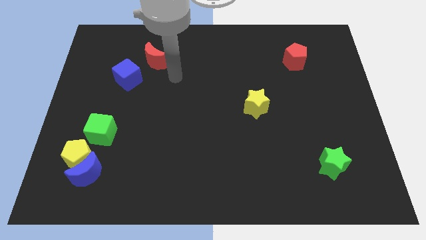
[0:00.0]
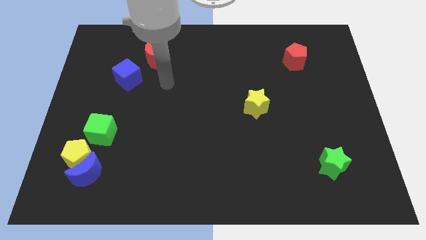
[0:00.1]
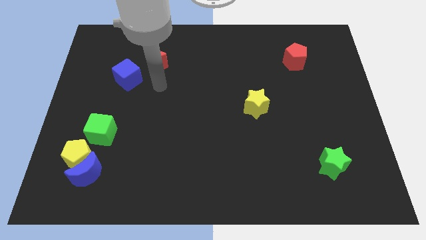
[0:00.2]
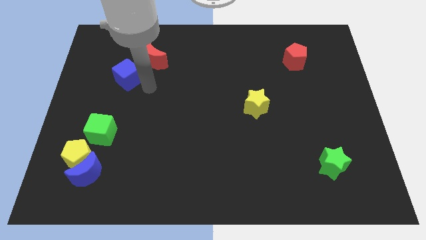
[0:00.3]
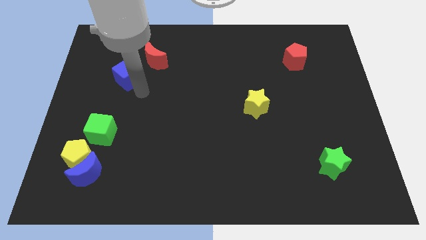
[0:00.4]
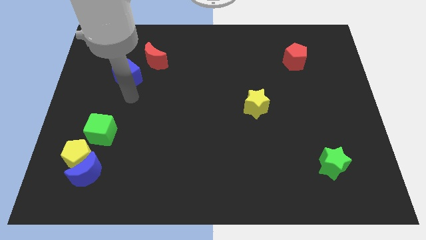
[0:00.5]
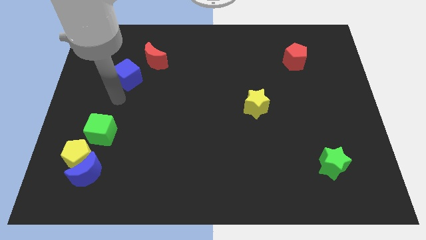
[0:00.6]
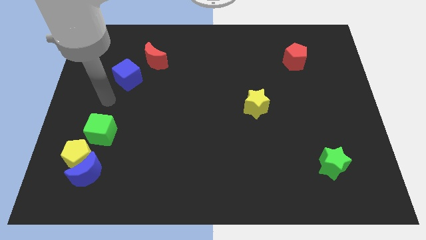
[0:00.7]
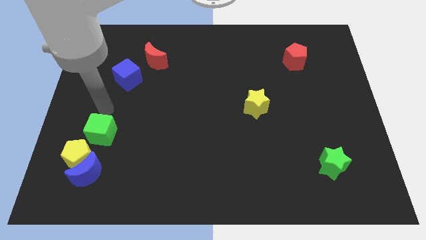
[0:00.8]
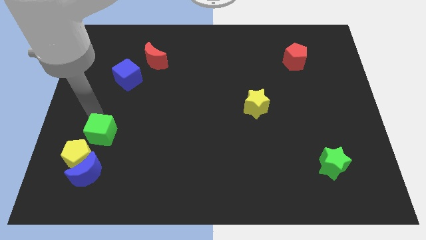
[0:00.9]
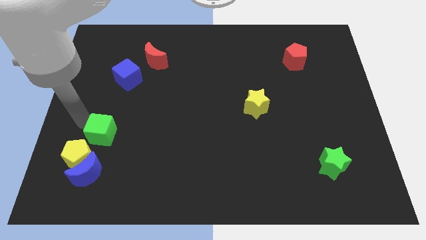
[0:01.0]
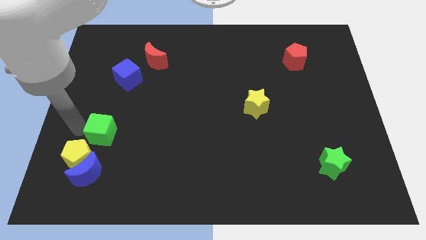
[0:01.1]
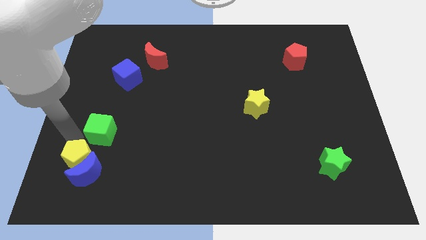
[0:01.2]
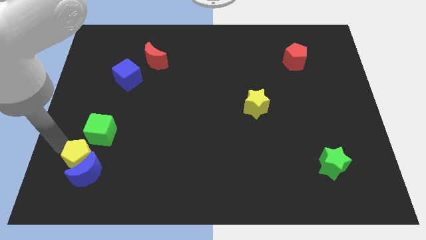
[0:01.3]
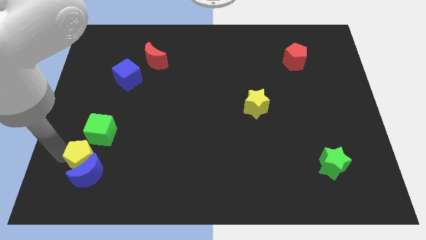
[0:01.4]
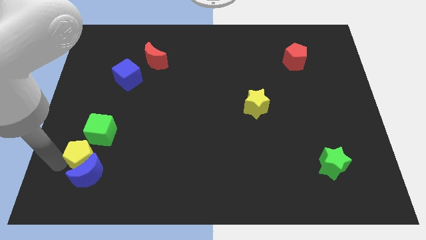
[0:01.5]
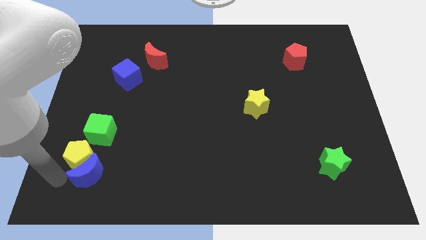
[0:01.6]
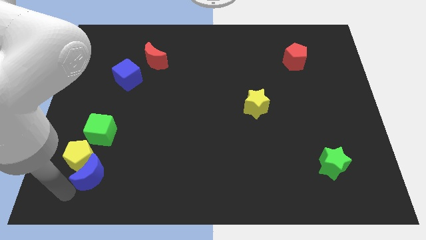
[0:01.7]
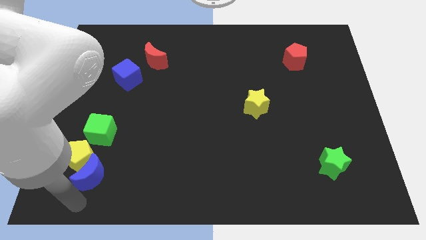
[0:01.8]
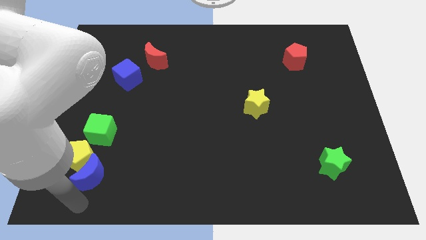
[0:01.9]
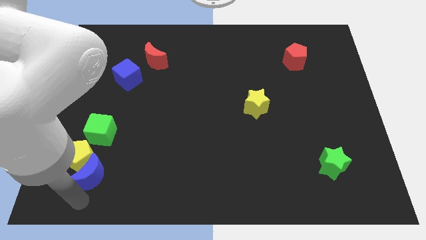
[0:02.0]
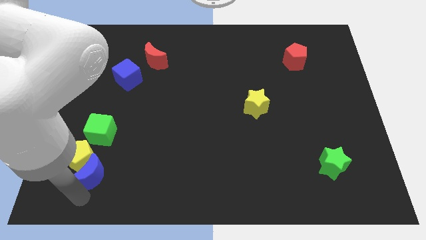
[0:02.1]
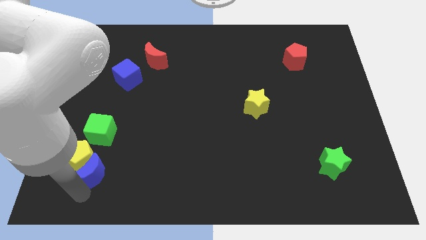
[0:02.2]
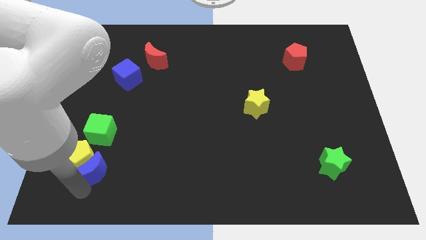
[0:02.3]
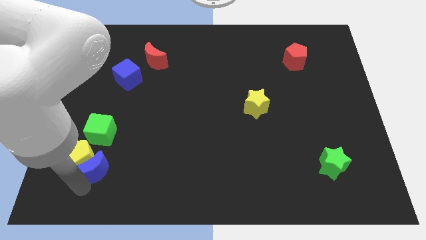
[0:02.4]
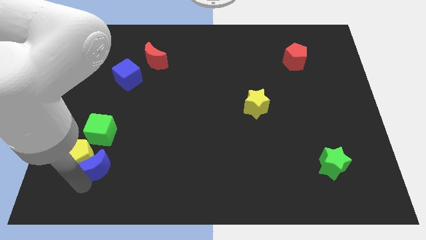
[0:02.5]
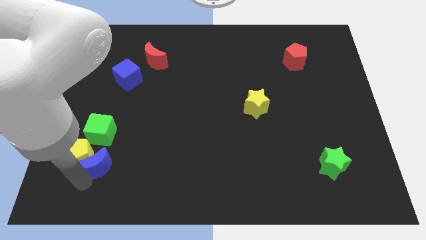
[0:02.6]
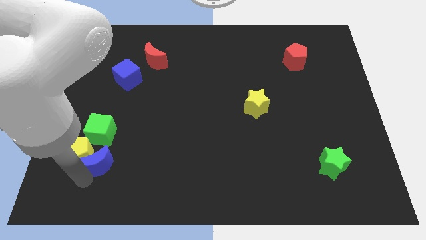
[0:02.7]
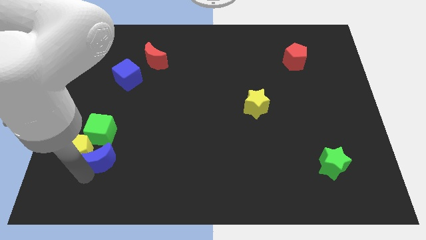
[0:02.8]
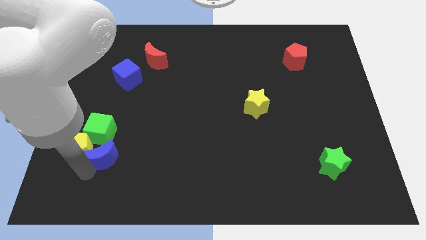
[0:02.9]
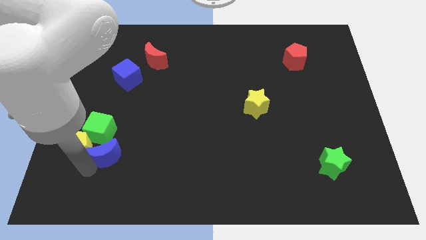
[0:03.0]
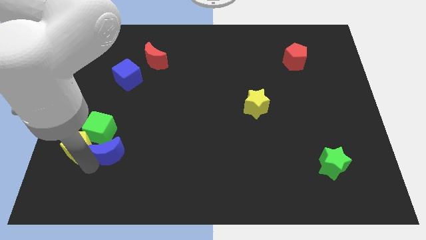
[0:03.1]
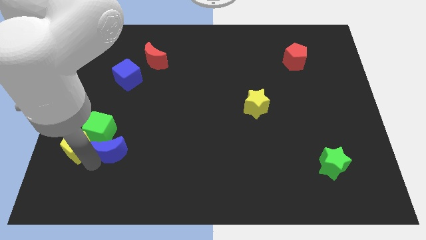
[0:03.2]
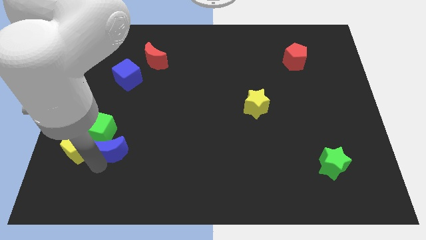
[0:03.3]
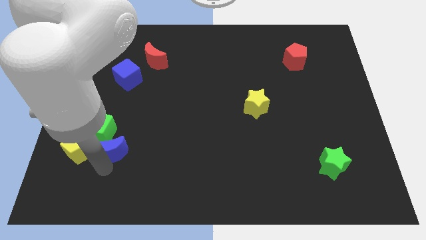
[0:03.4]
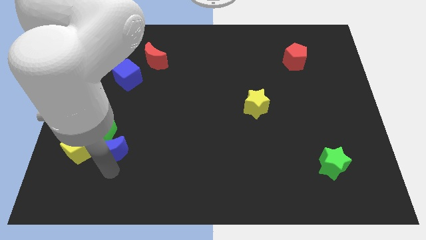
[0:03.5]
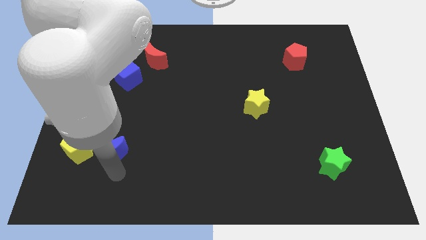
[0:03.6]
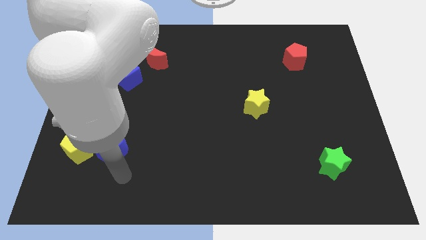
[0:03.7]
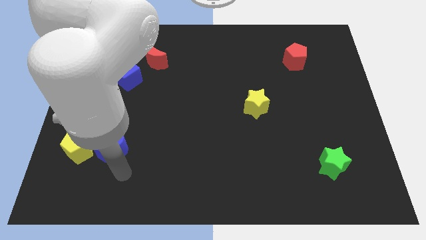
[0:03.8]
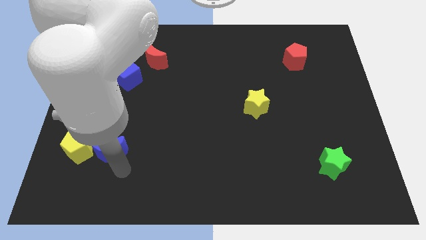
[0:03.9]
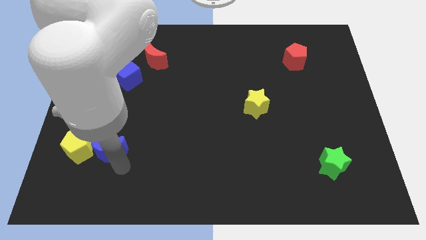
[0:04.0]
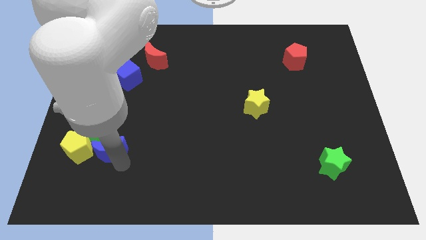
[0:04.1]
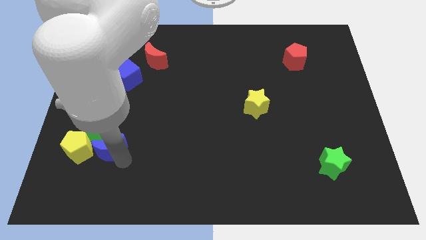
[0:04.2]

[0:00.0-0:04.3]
push the blue moon close to the green cube

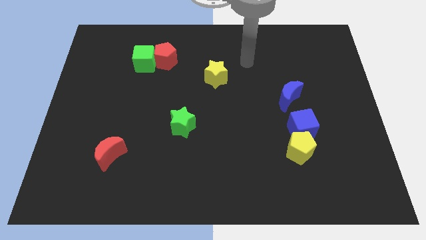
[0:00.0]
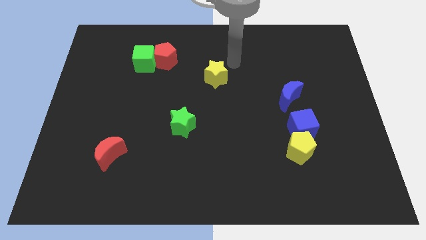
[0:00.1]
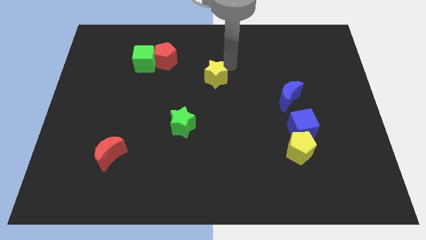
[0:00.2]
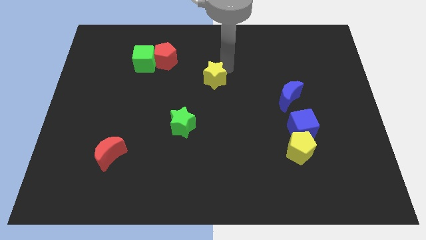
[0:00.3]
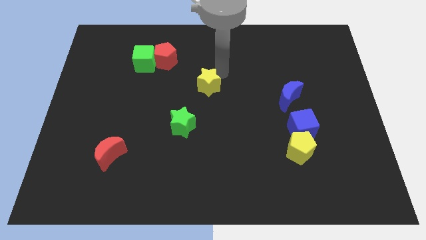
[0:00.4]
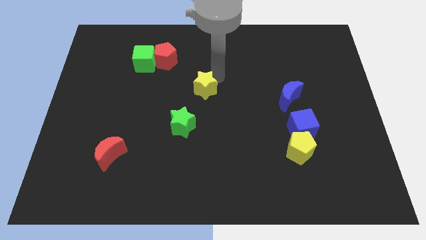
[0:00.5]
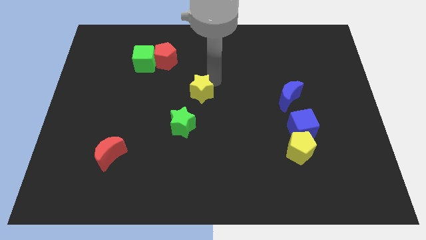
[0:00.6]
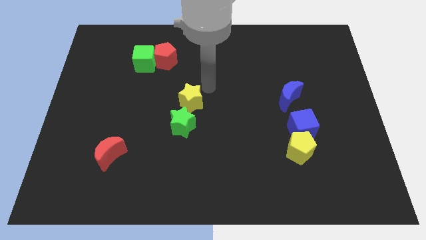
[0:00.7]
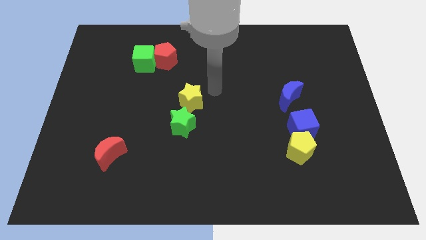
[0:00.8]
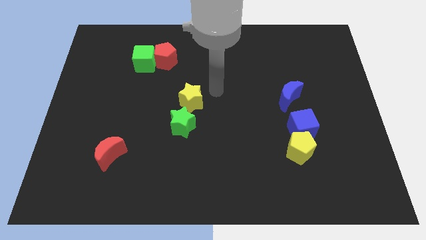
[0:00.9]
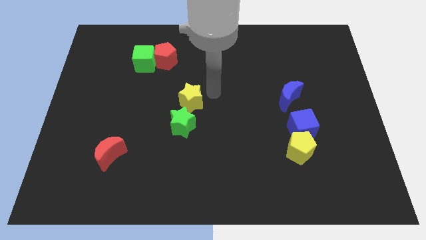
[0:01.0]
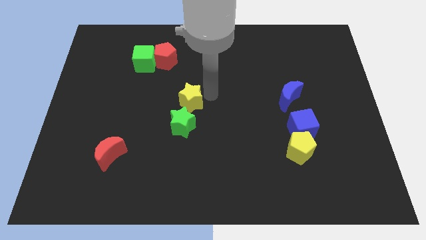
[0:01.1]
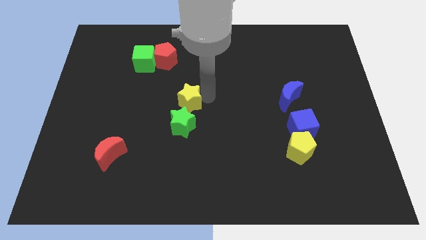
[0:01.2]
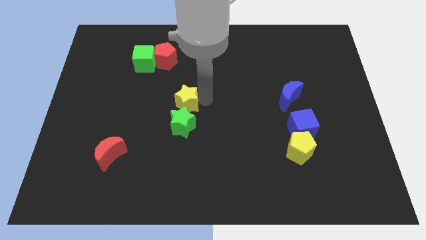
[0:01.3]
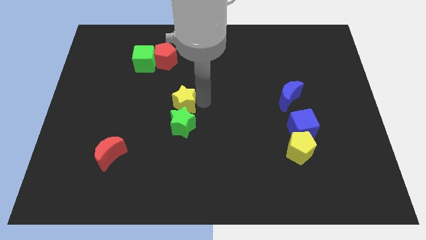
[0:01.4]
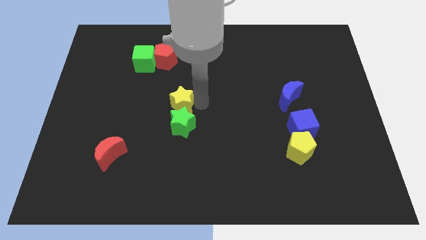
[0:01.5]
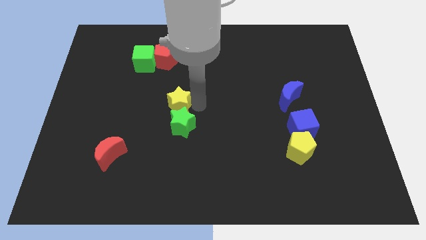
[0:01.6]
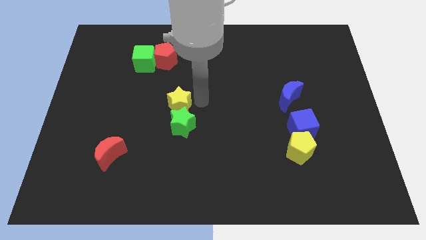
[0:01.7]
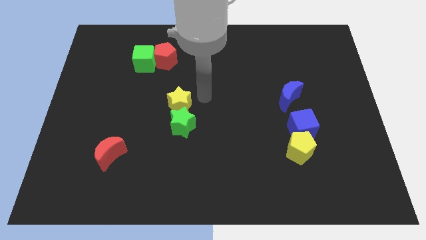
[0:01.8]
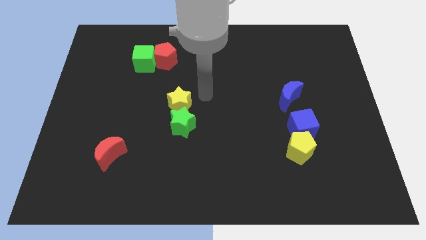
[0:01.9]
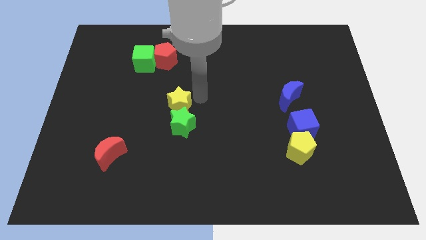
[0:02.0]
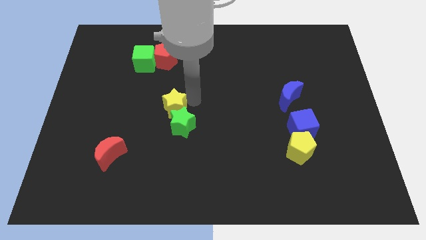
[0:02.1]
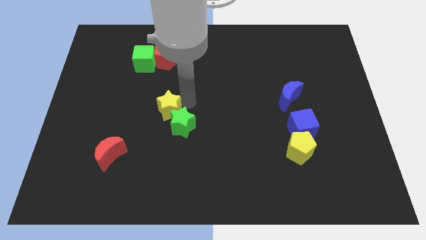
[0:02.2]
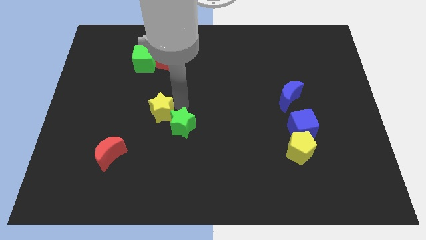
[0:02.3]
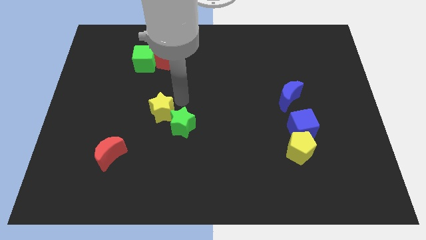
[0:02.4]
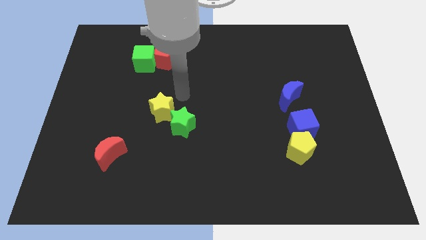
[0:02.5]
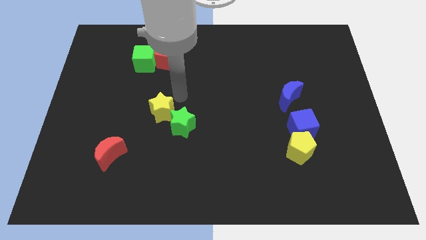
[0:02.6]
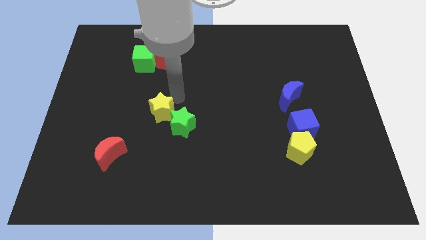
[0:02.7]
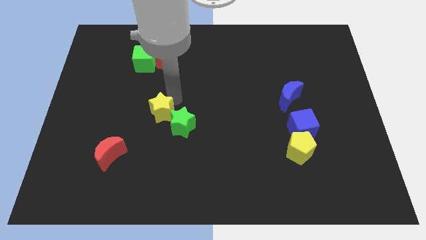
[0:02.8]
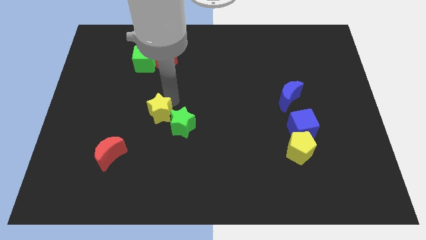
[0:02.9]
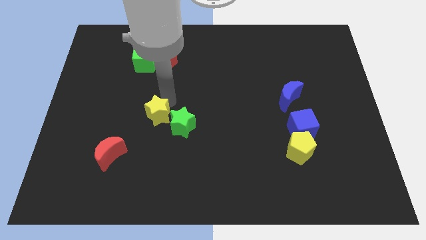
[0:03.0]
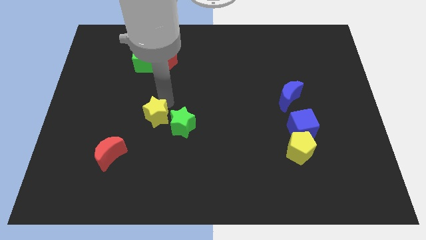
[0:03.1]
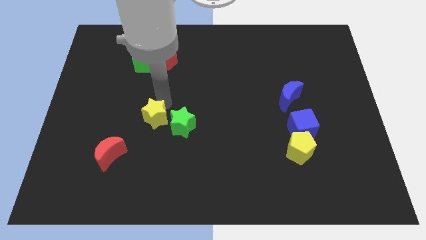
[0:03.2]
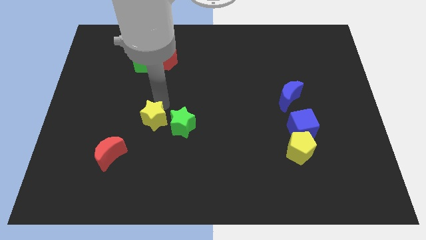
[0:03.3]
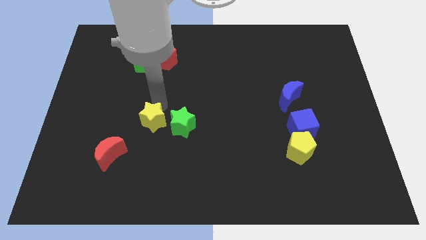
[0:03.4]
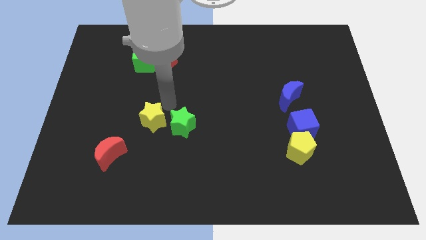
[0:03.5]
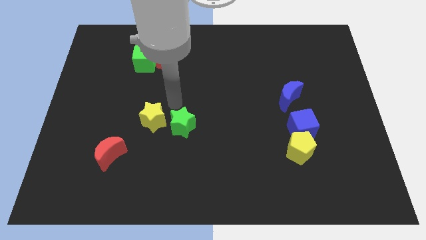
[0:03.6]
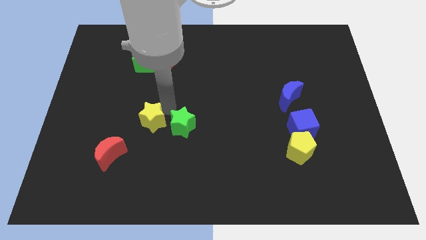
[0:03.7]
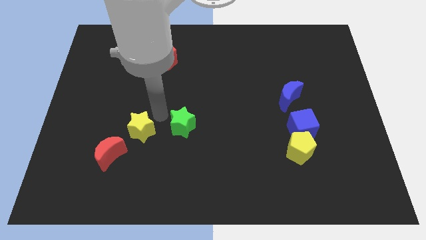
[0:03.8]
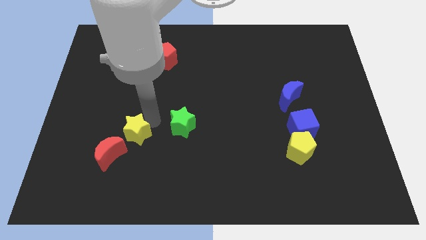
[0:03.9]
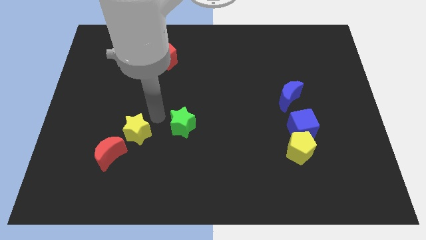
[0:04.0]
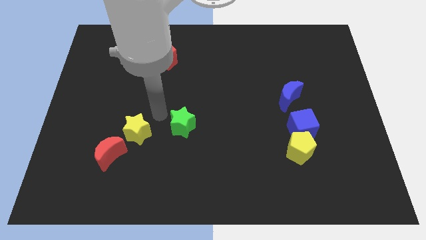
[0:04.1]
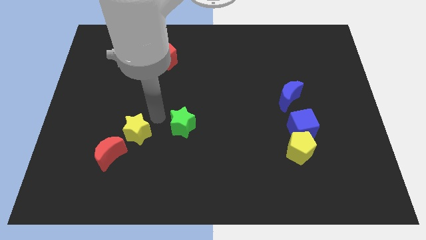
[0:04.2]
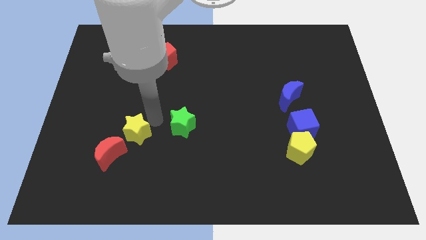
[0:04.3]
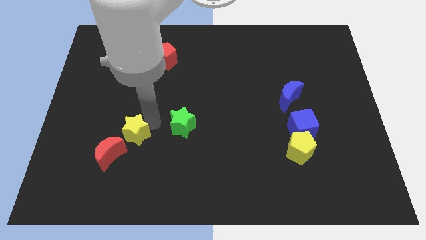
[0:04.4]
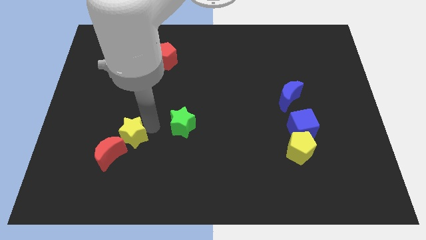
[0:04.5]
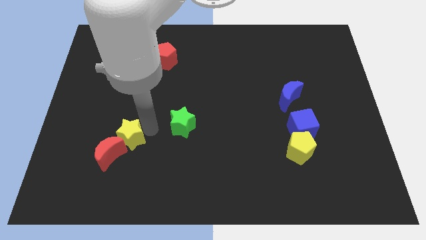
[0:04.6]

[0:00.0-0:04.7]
move the yellow star to the red moon
